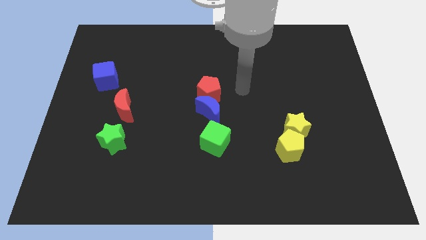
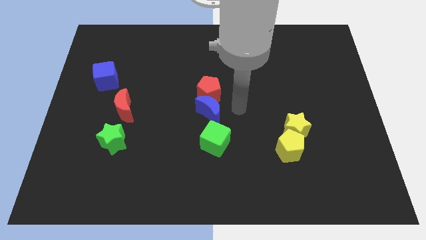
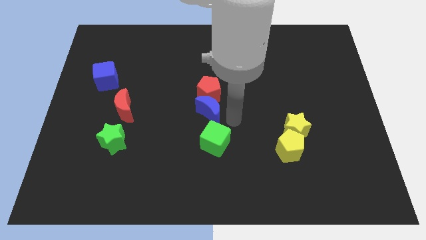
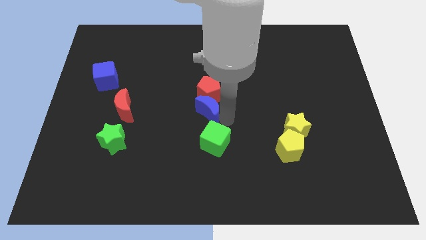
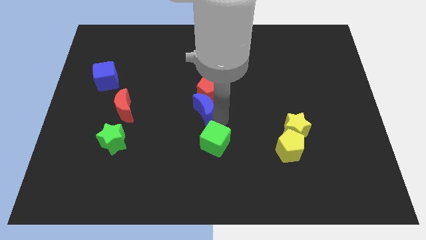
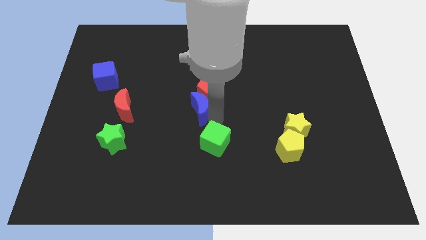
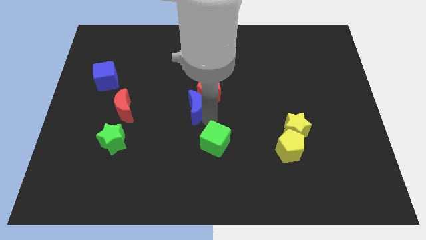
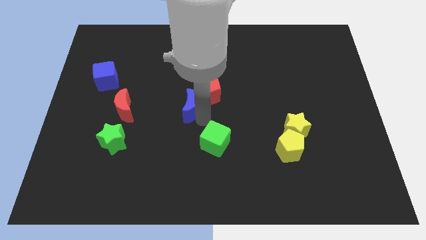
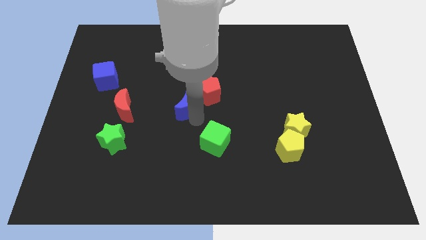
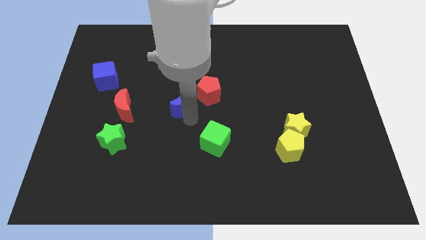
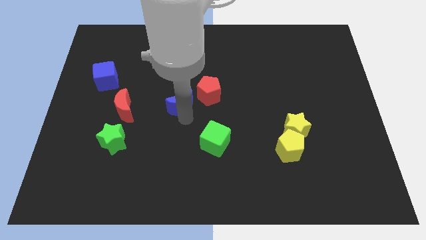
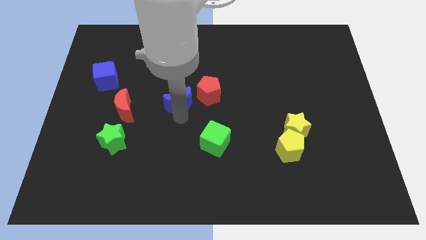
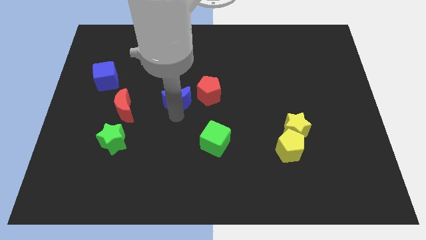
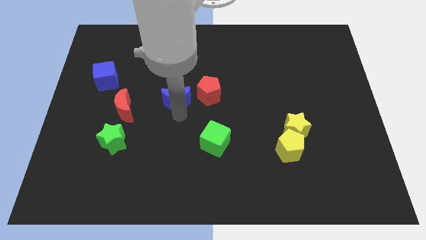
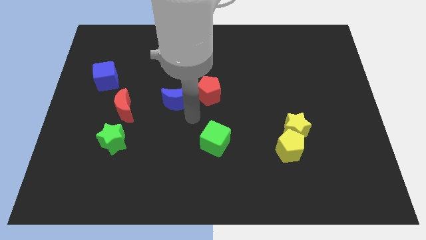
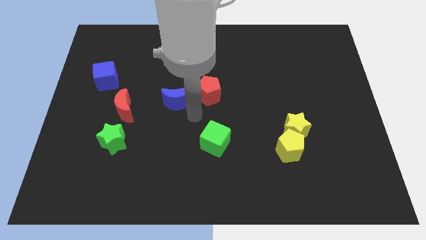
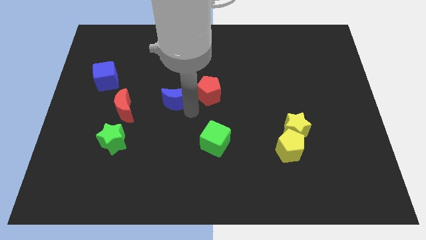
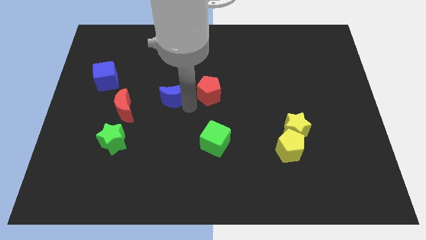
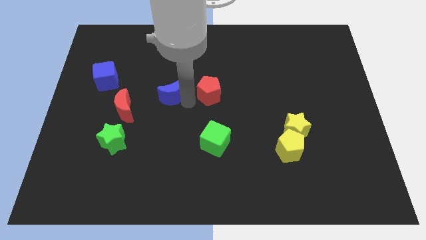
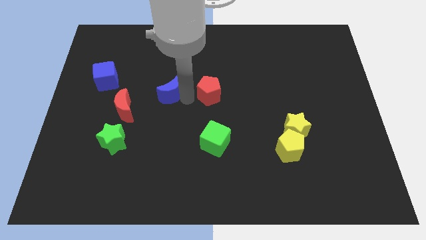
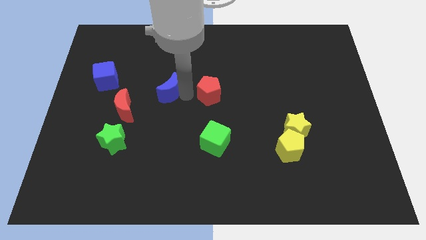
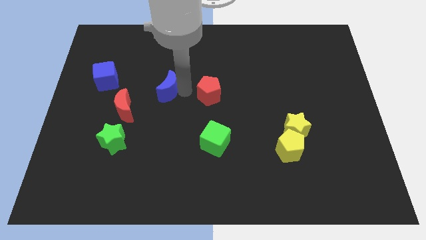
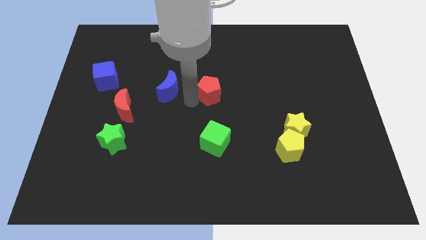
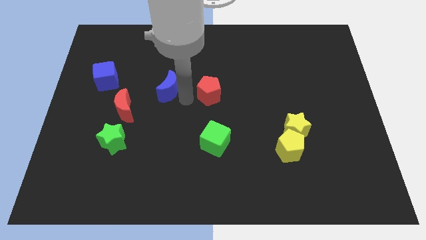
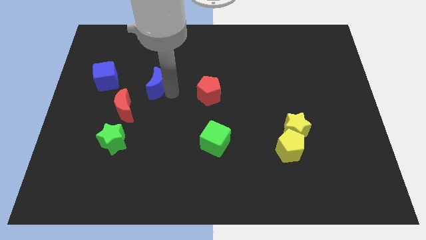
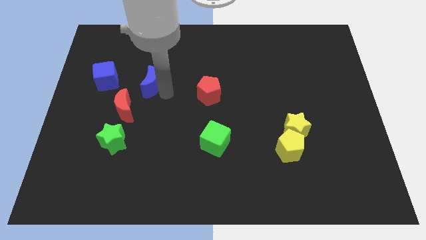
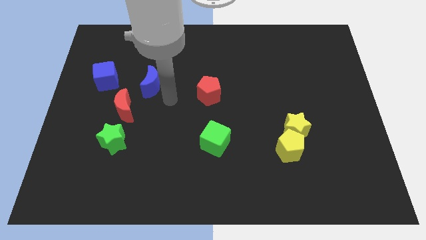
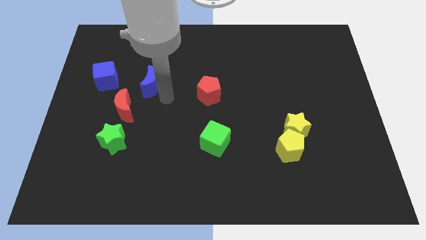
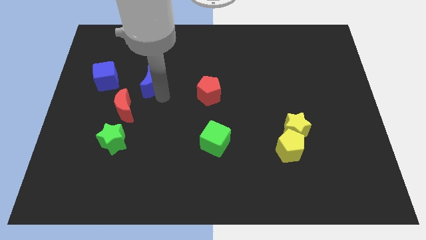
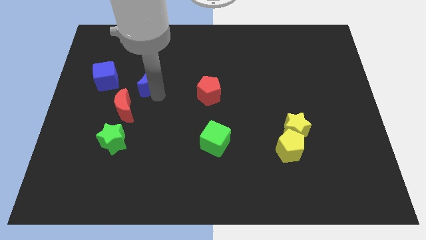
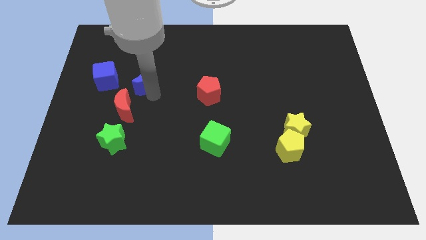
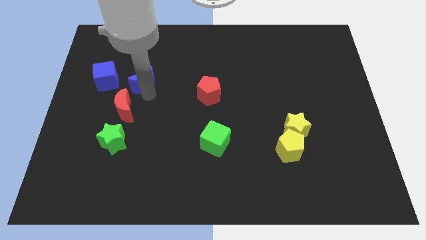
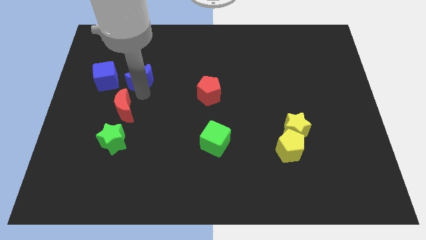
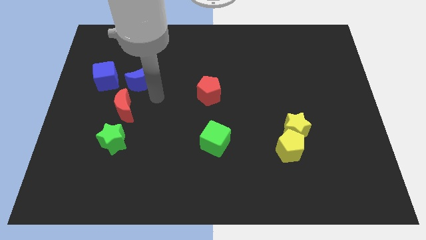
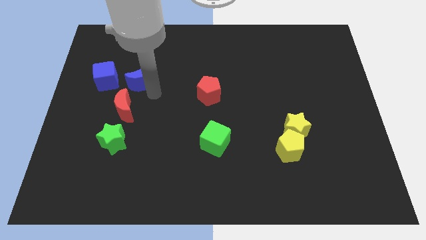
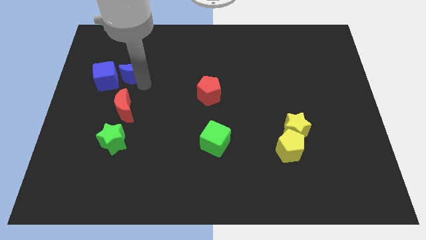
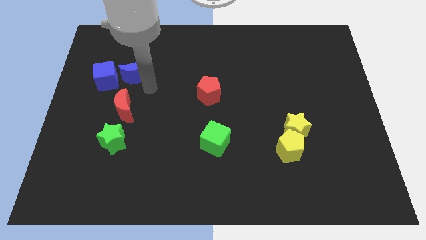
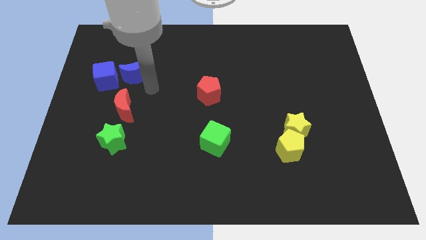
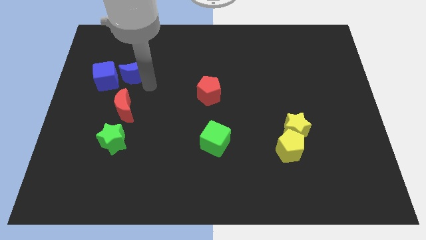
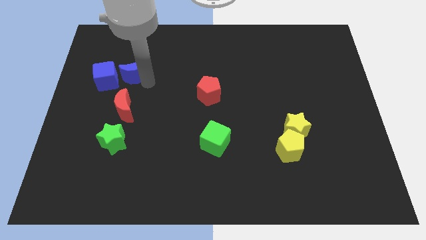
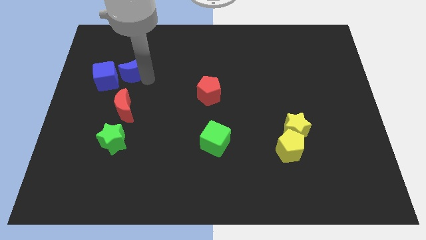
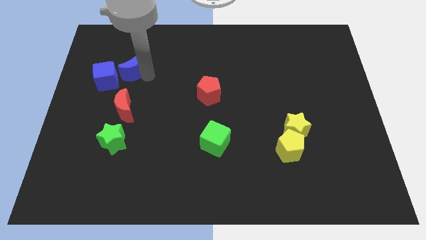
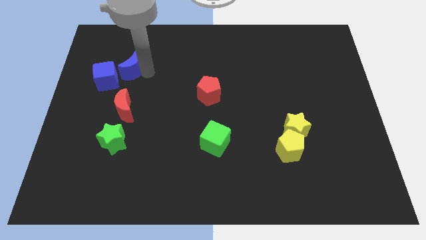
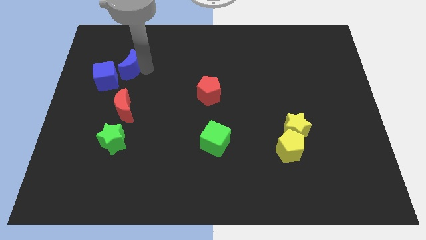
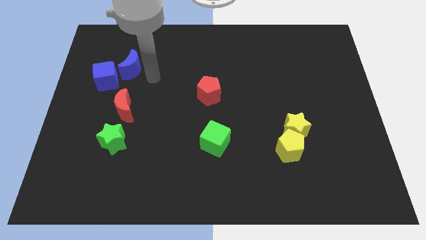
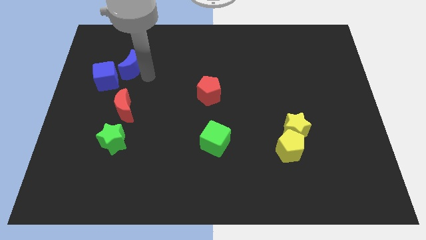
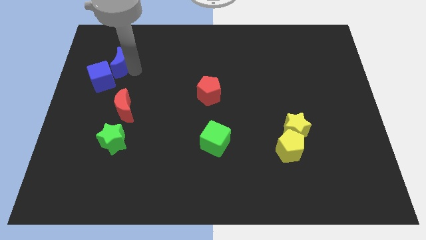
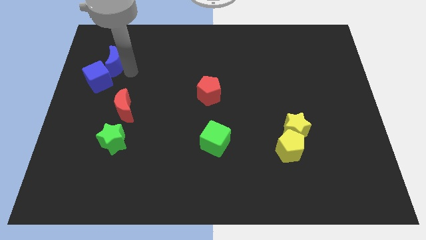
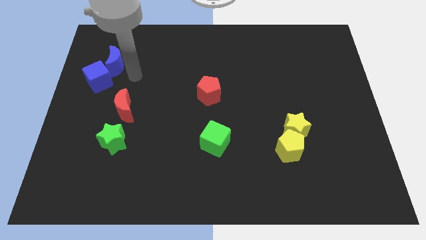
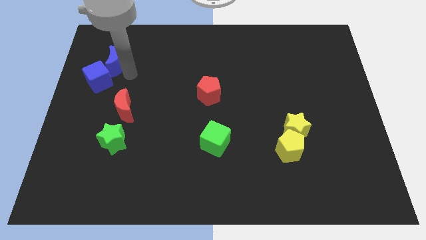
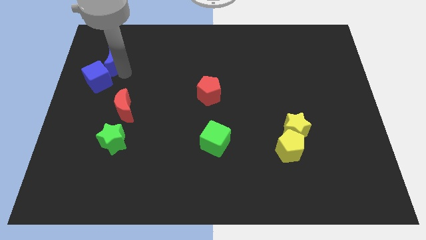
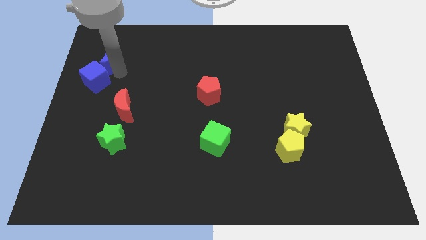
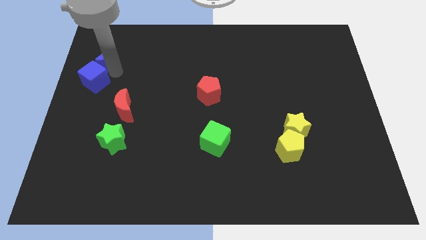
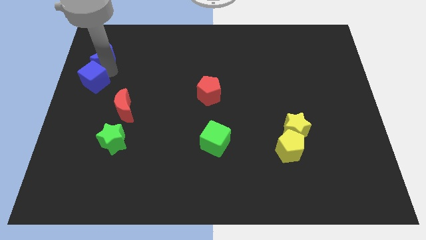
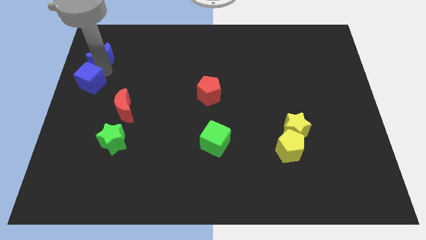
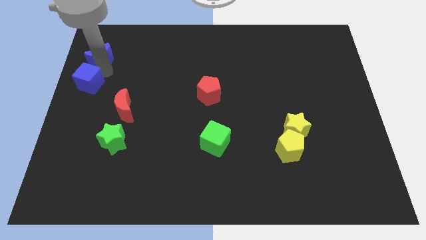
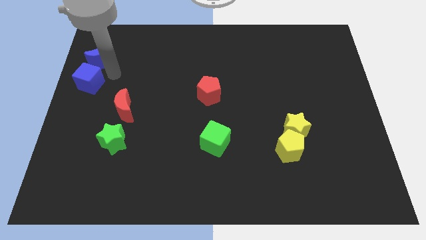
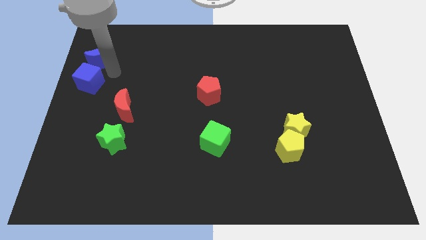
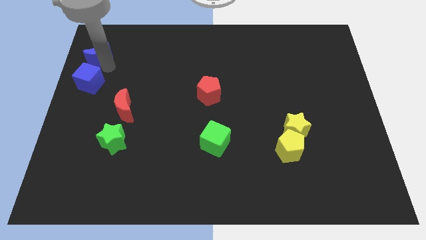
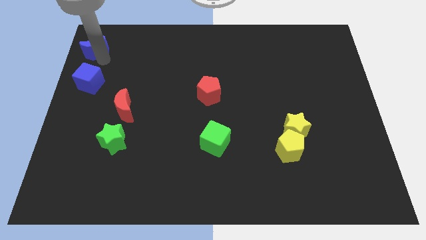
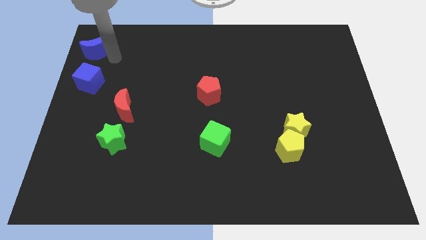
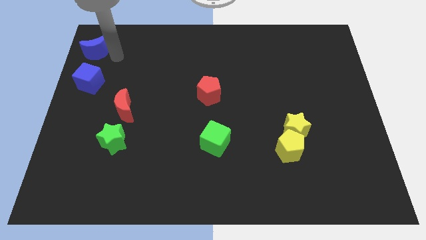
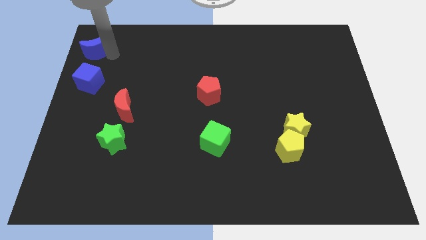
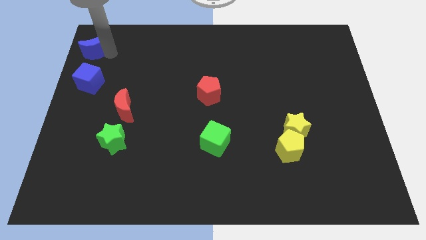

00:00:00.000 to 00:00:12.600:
push the blue moon to the top left

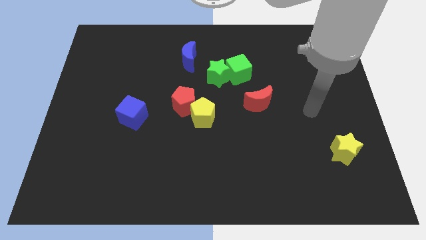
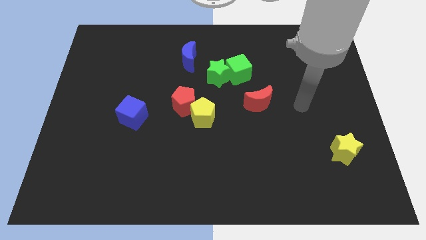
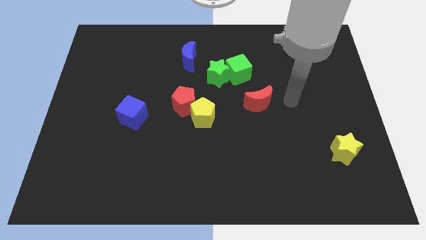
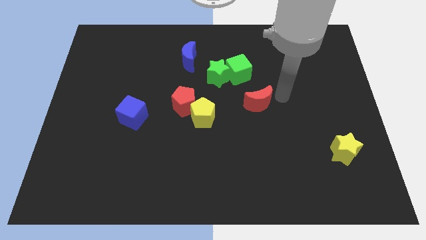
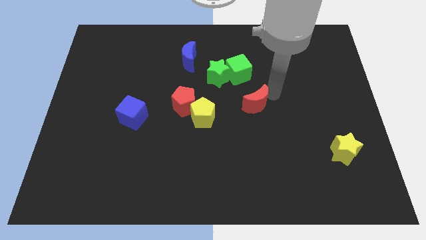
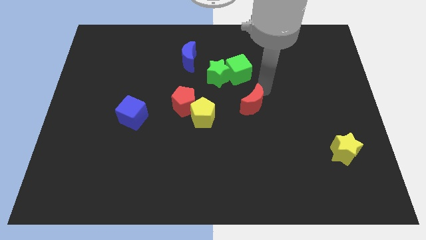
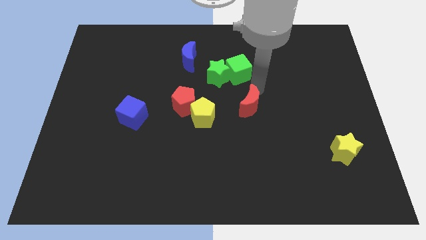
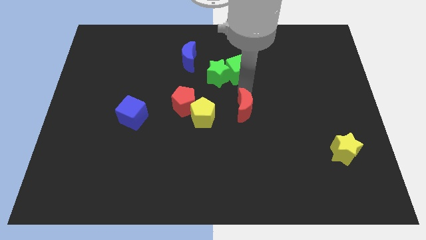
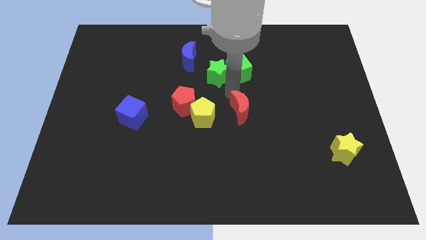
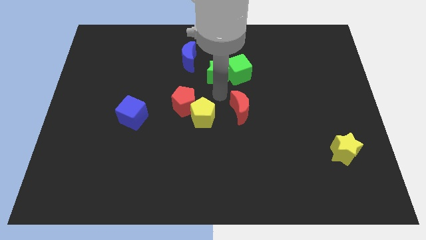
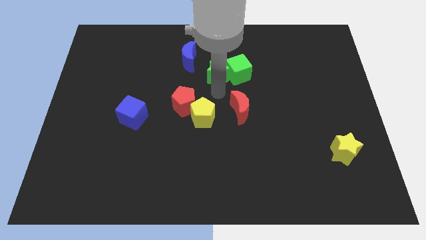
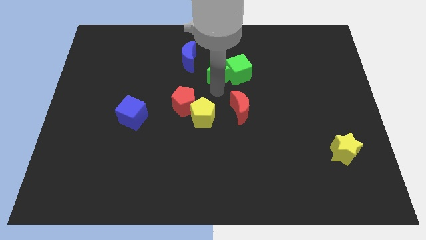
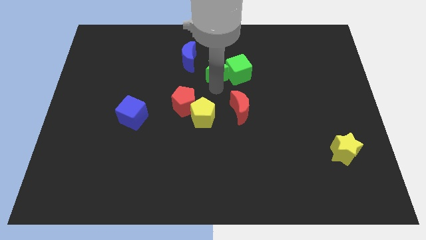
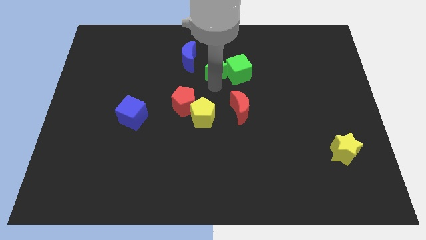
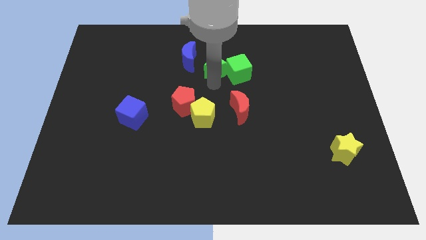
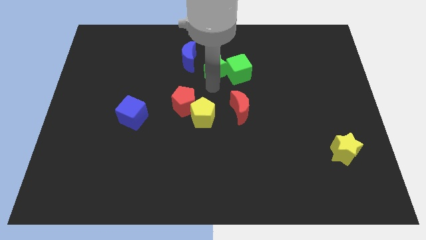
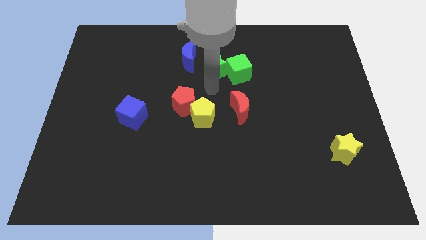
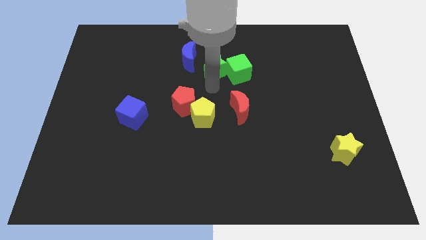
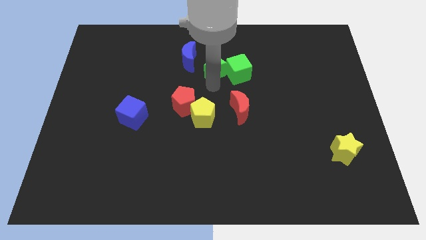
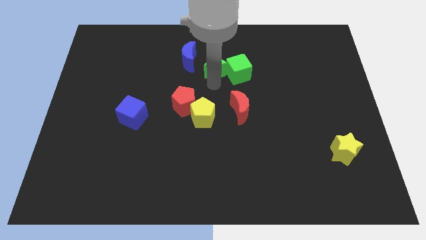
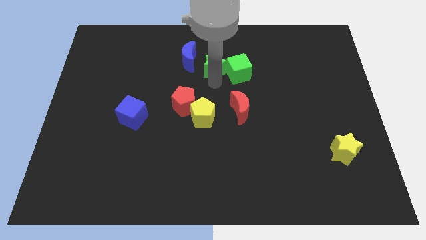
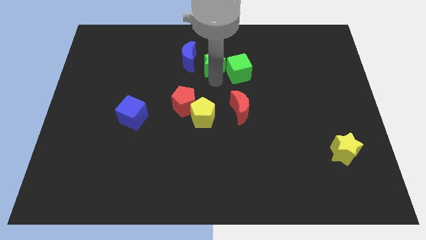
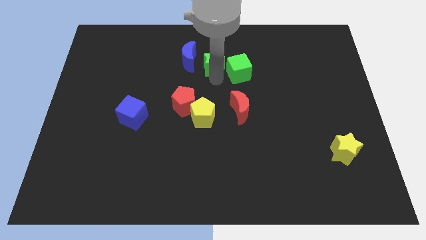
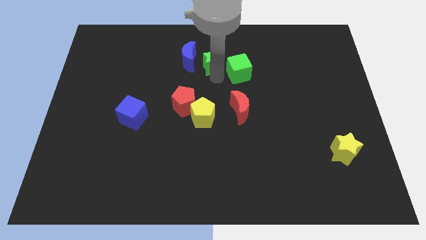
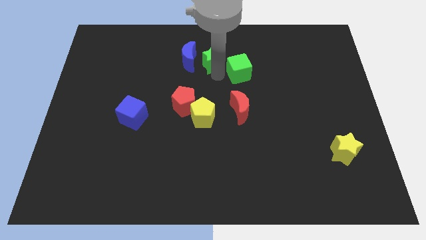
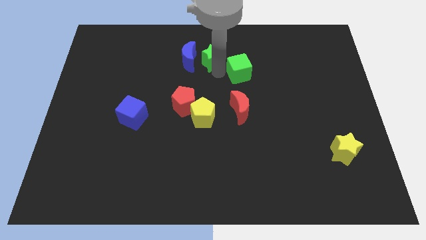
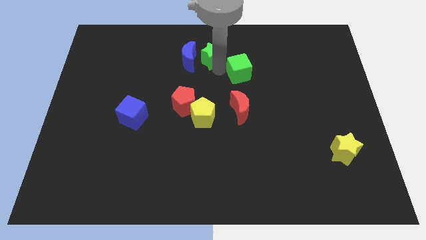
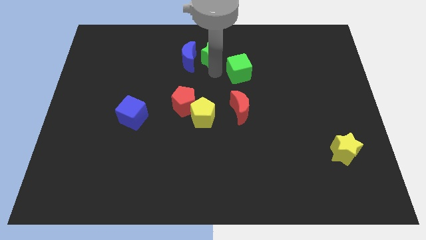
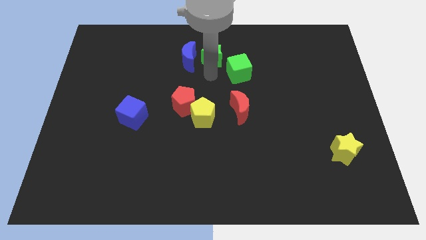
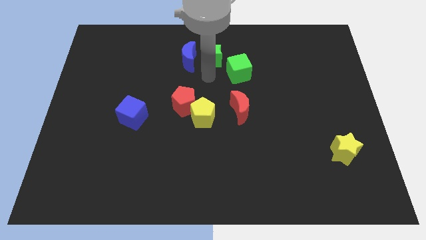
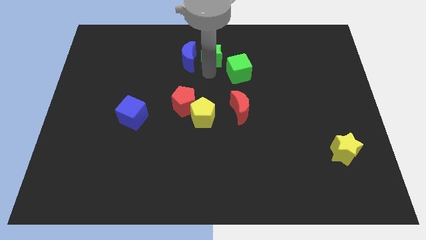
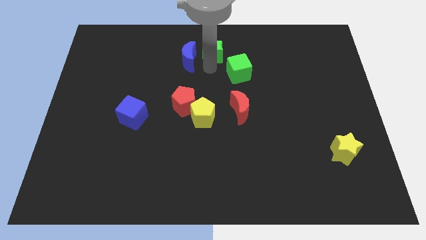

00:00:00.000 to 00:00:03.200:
move the green star to the top side
